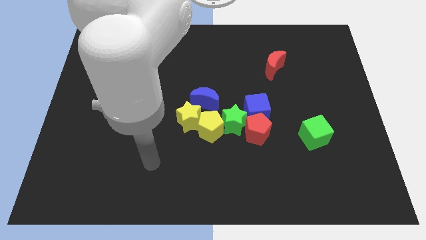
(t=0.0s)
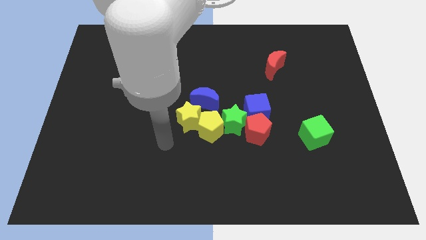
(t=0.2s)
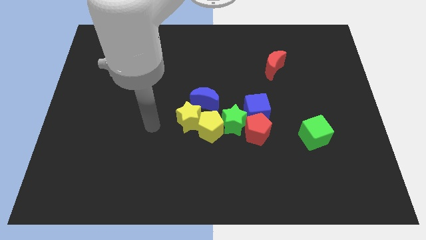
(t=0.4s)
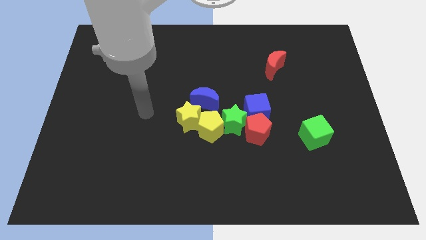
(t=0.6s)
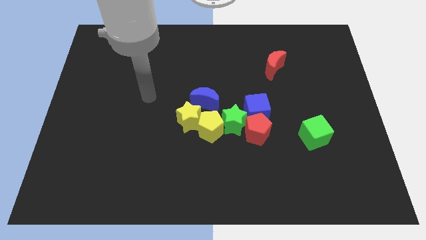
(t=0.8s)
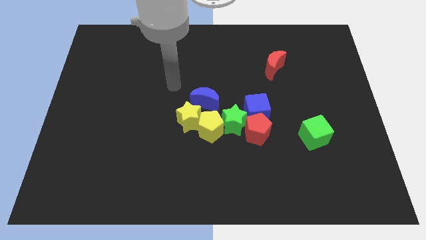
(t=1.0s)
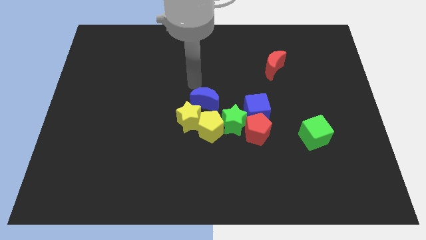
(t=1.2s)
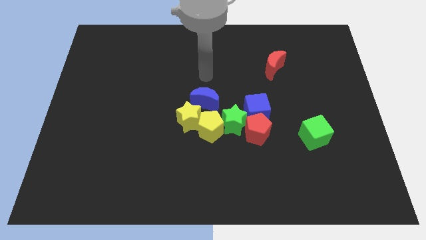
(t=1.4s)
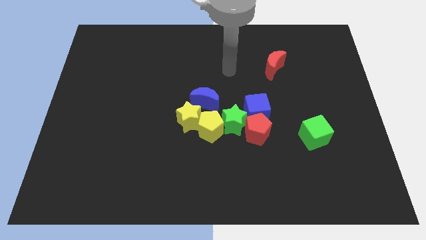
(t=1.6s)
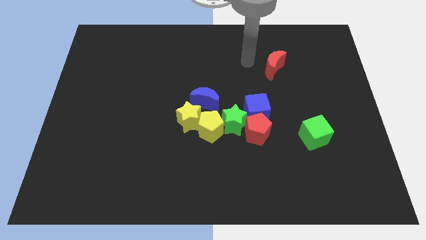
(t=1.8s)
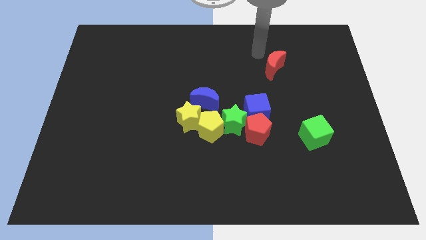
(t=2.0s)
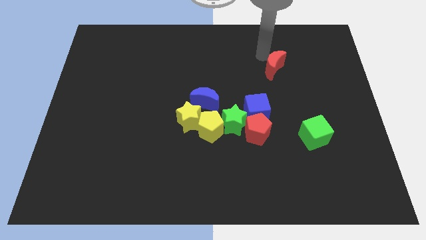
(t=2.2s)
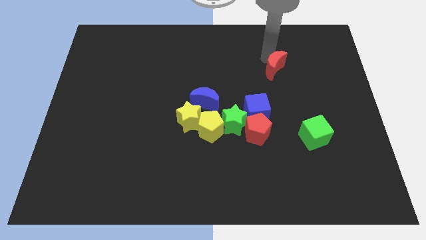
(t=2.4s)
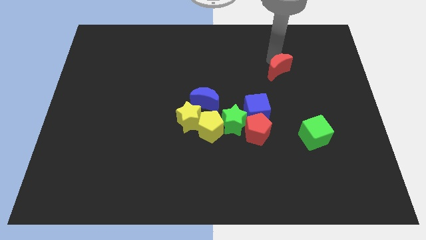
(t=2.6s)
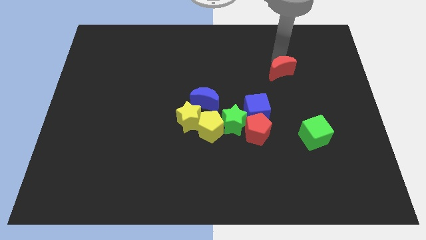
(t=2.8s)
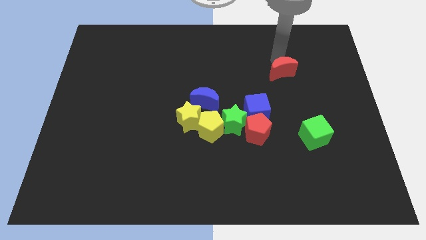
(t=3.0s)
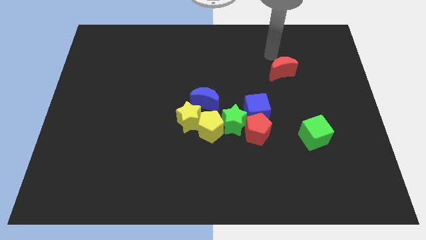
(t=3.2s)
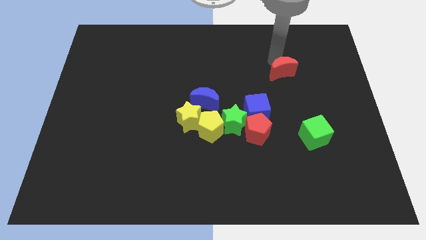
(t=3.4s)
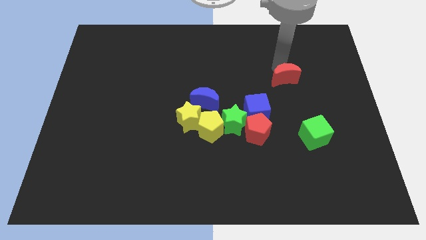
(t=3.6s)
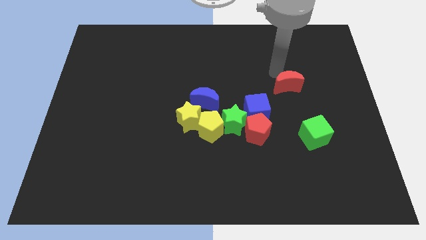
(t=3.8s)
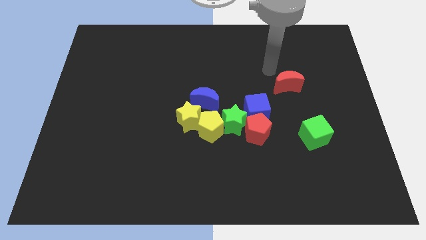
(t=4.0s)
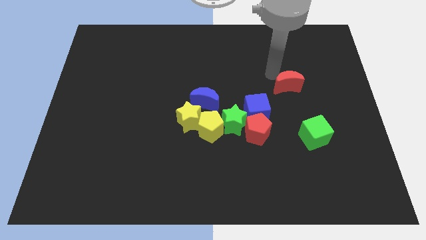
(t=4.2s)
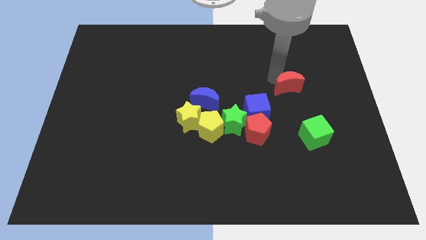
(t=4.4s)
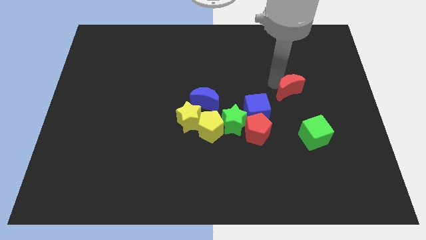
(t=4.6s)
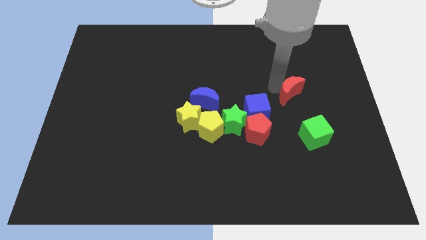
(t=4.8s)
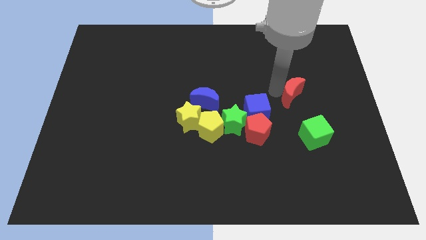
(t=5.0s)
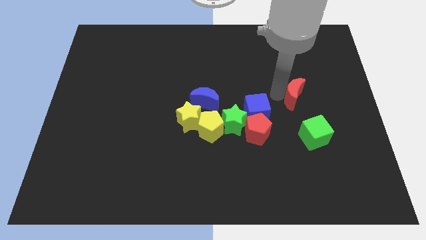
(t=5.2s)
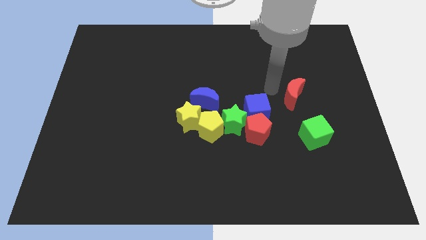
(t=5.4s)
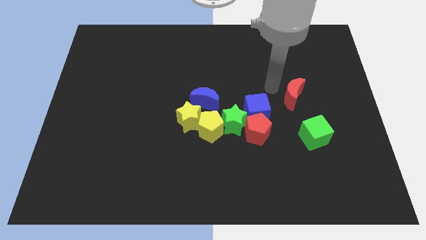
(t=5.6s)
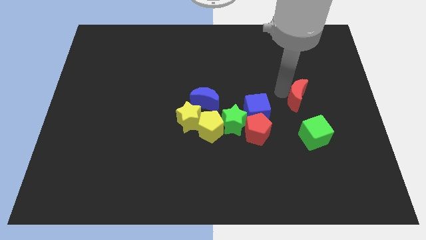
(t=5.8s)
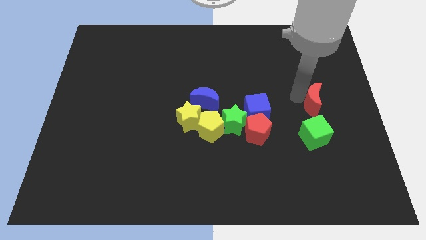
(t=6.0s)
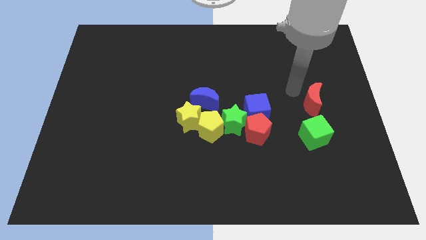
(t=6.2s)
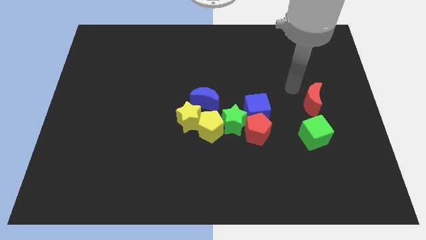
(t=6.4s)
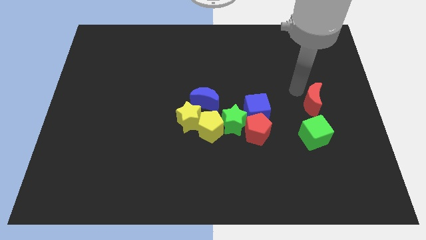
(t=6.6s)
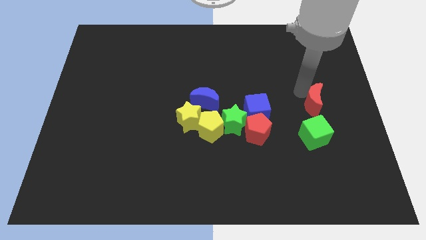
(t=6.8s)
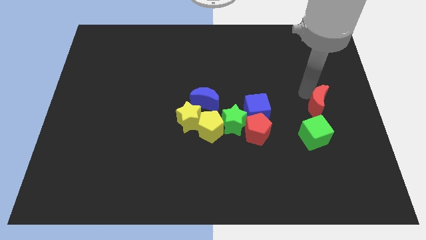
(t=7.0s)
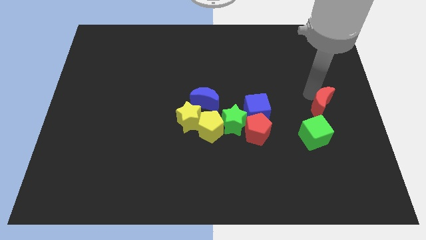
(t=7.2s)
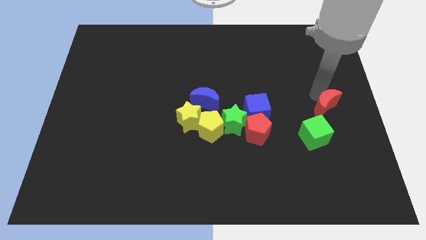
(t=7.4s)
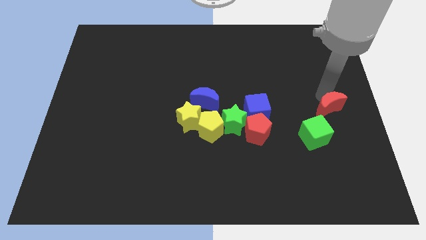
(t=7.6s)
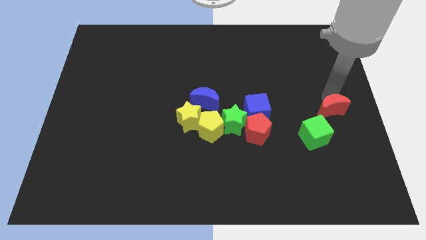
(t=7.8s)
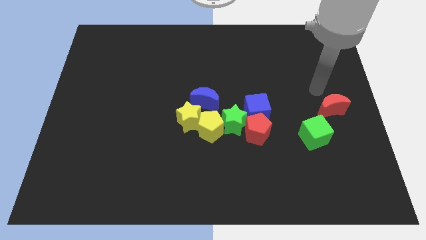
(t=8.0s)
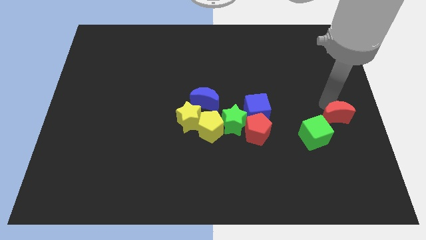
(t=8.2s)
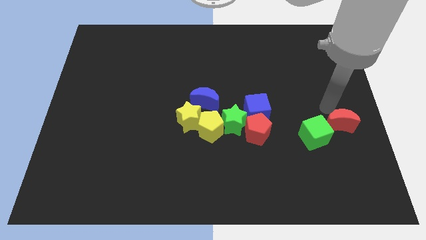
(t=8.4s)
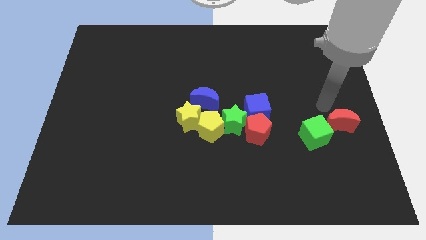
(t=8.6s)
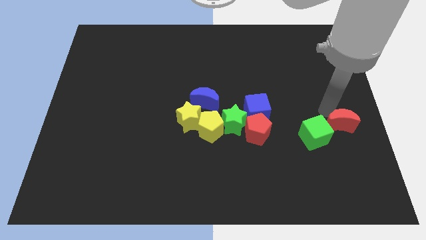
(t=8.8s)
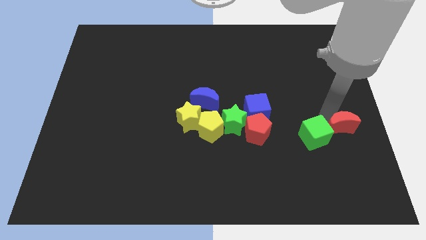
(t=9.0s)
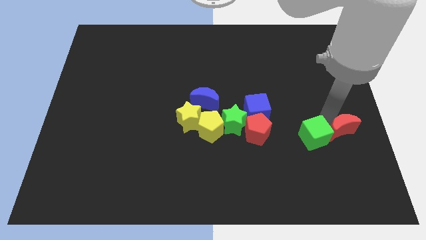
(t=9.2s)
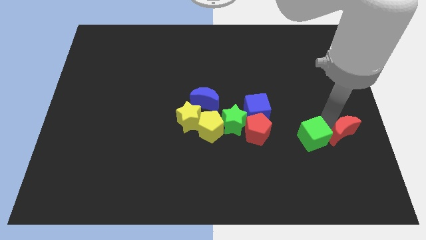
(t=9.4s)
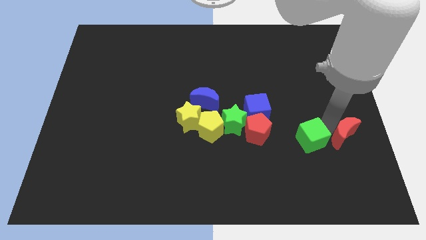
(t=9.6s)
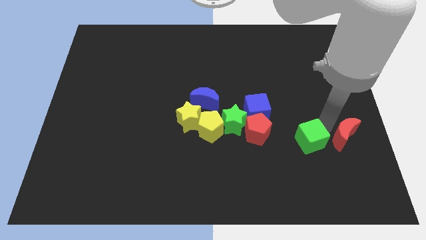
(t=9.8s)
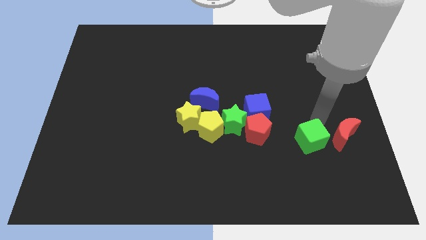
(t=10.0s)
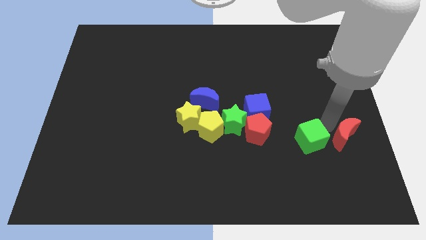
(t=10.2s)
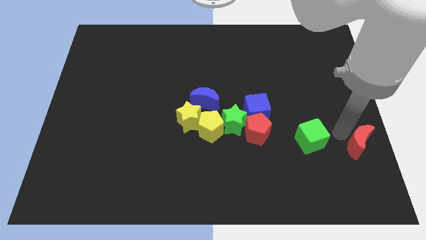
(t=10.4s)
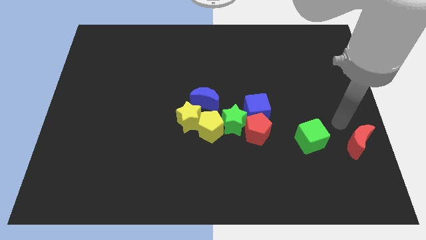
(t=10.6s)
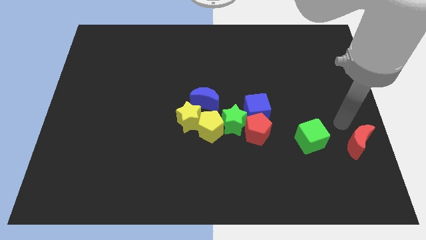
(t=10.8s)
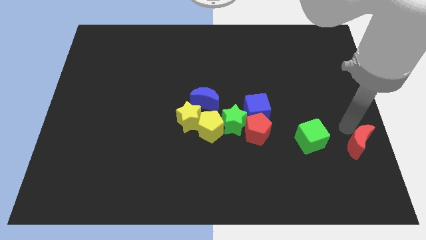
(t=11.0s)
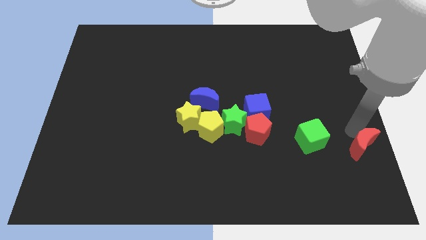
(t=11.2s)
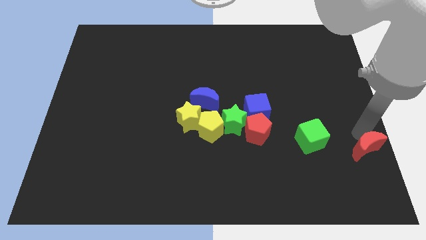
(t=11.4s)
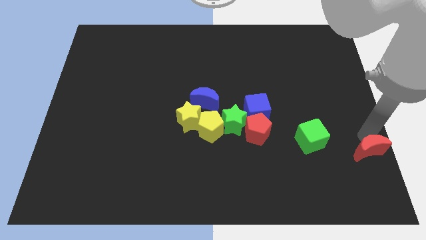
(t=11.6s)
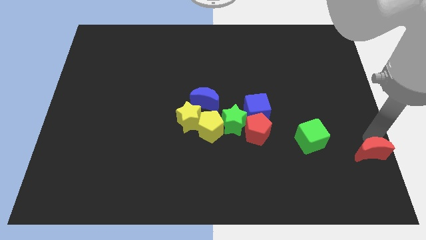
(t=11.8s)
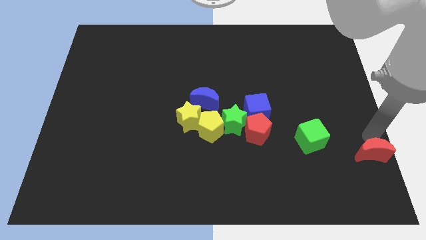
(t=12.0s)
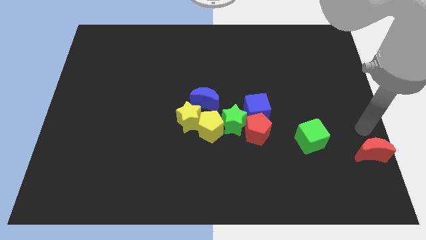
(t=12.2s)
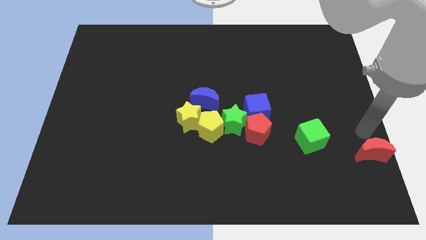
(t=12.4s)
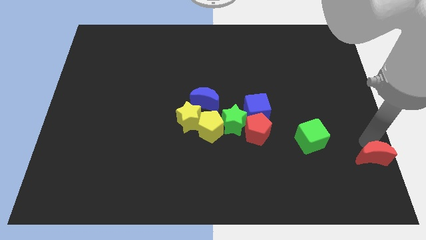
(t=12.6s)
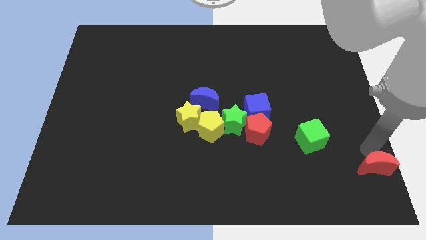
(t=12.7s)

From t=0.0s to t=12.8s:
slide the red moon to the bottom right of the board
